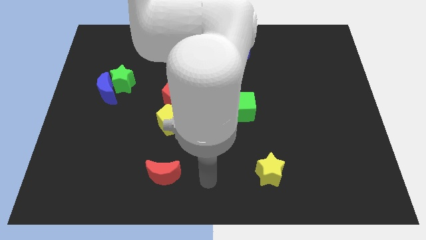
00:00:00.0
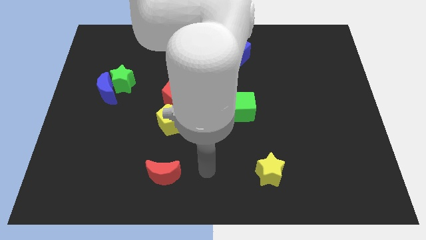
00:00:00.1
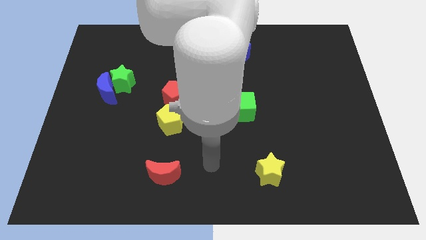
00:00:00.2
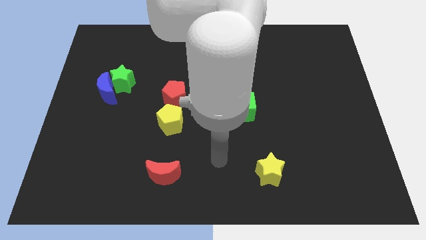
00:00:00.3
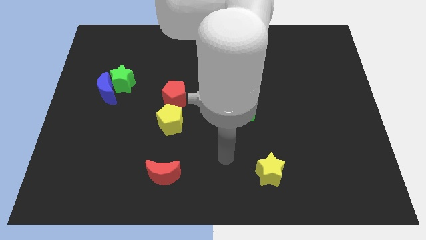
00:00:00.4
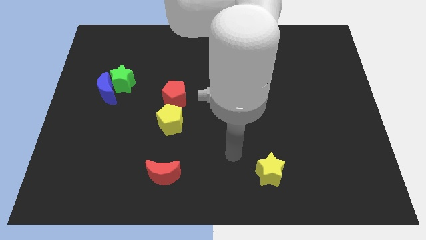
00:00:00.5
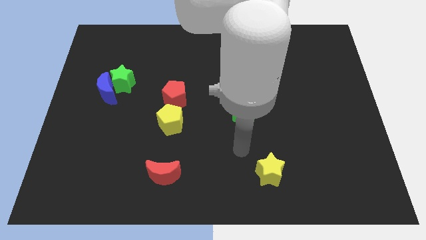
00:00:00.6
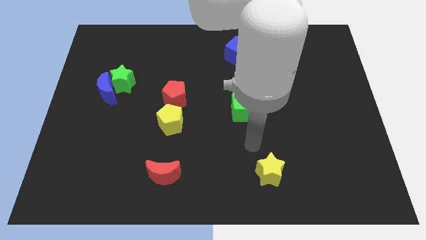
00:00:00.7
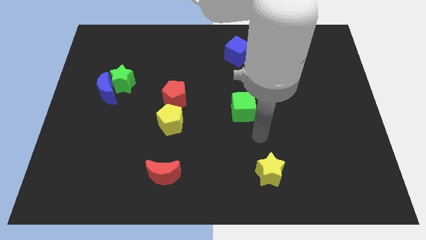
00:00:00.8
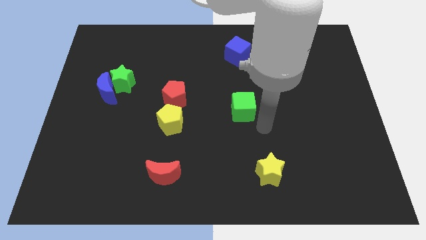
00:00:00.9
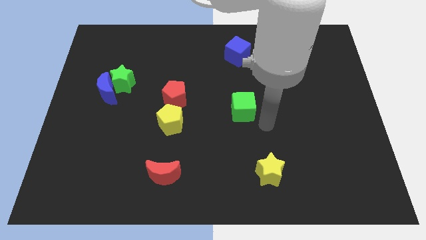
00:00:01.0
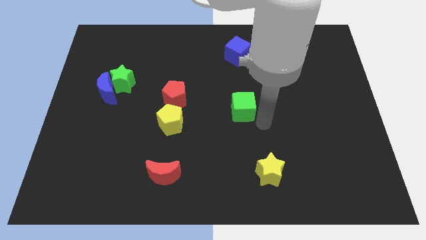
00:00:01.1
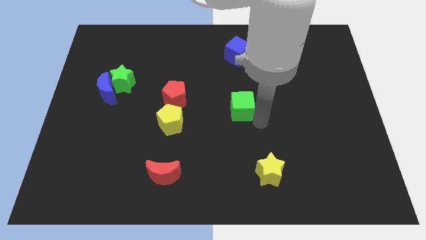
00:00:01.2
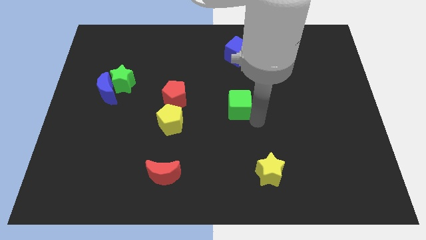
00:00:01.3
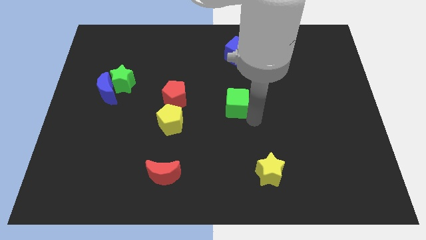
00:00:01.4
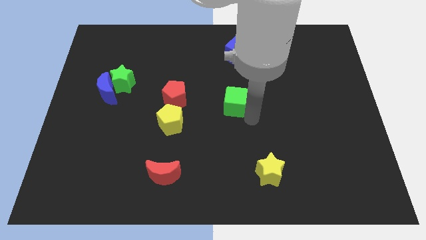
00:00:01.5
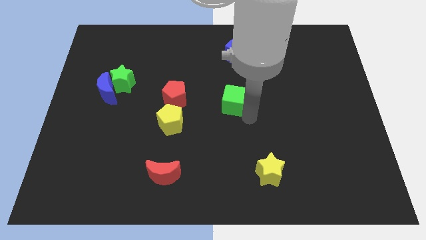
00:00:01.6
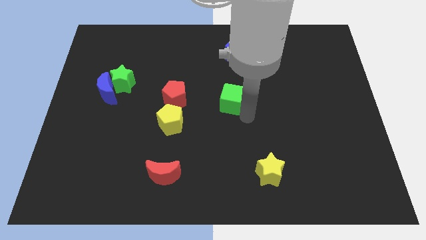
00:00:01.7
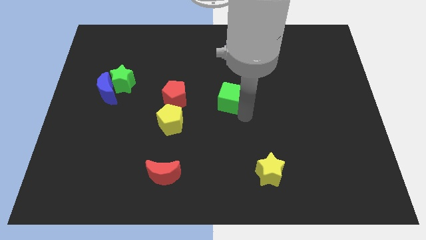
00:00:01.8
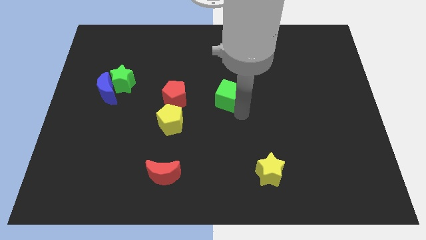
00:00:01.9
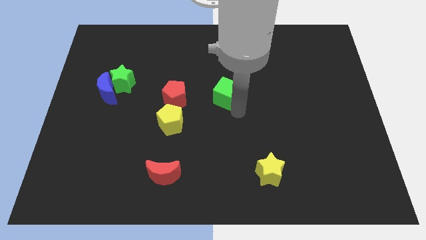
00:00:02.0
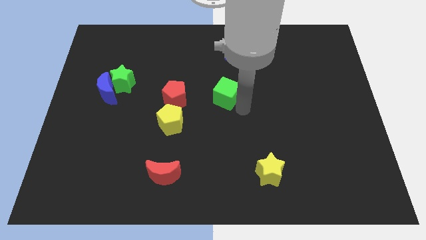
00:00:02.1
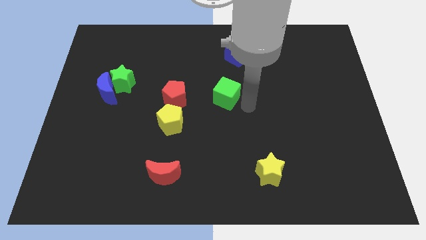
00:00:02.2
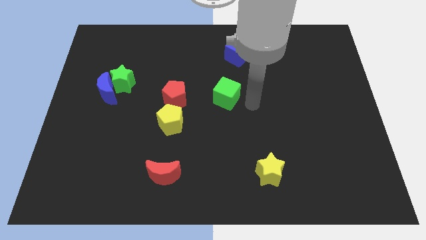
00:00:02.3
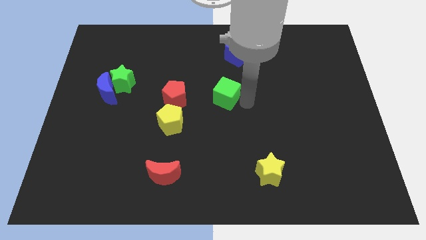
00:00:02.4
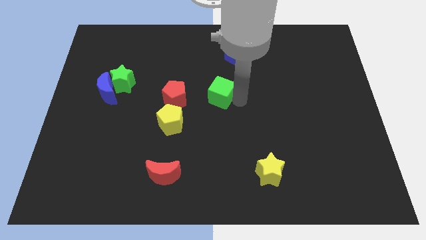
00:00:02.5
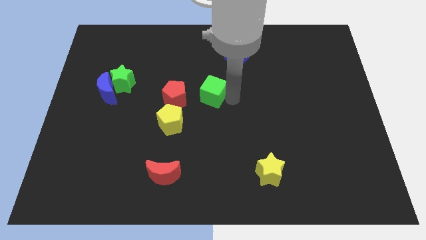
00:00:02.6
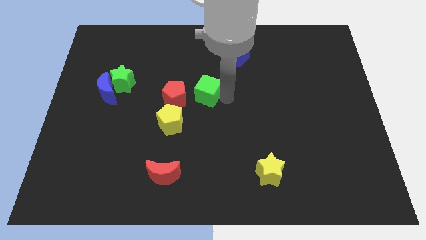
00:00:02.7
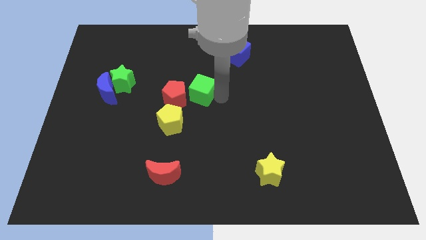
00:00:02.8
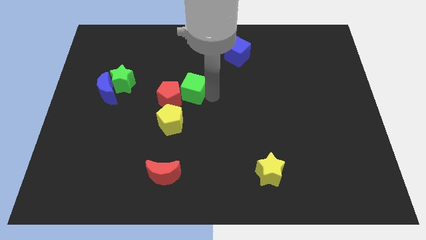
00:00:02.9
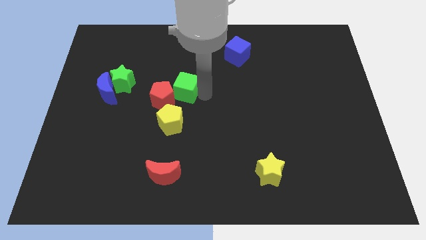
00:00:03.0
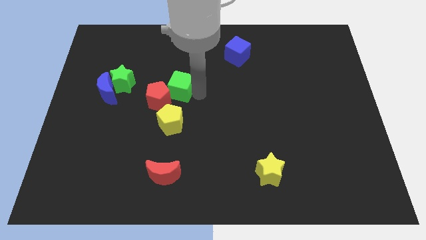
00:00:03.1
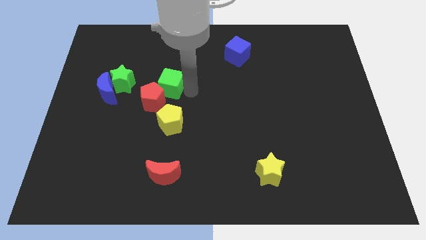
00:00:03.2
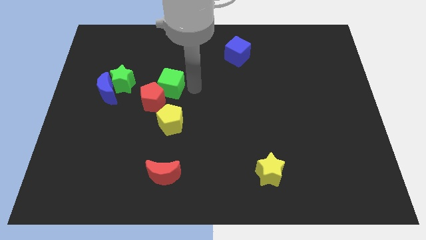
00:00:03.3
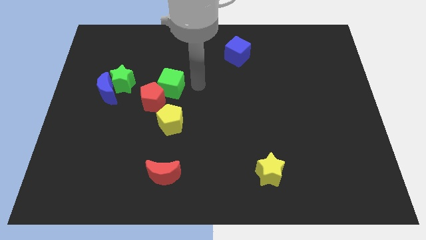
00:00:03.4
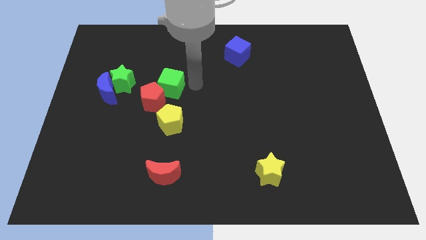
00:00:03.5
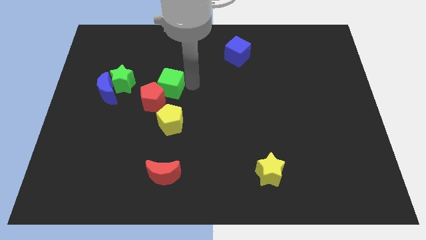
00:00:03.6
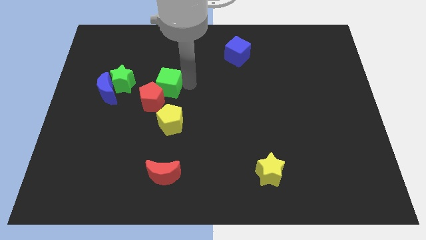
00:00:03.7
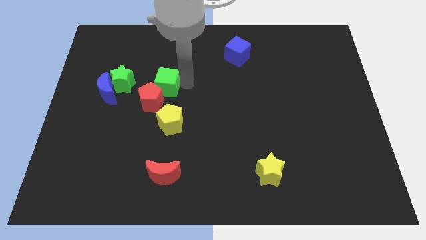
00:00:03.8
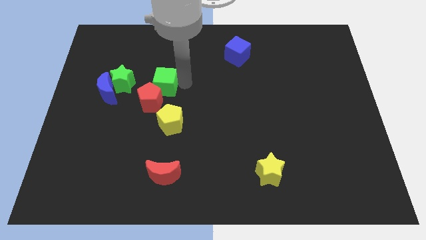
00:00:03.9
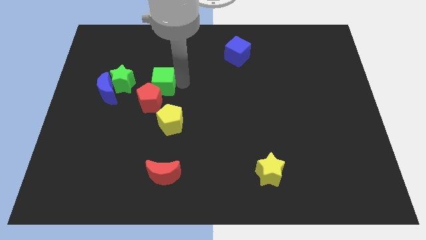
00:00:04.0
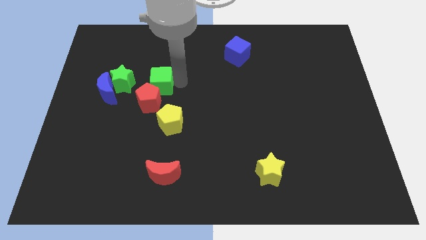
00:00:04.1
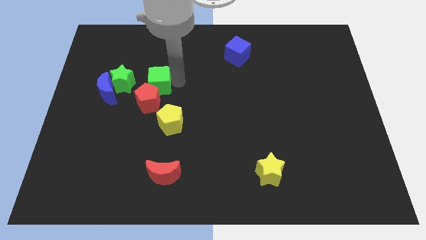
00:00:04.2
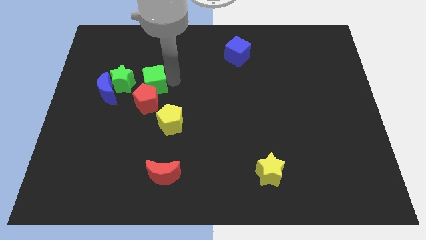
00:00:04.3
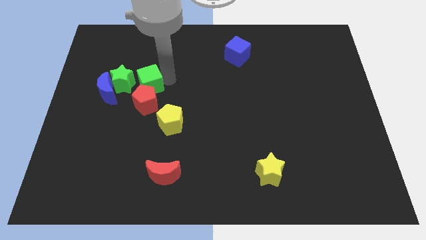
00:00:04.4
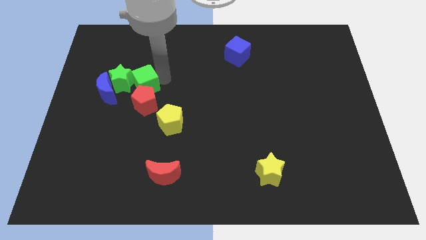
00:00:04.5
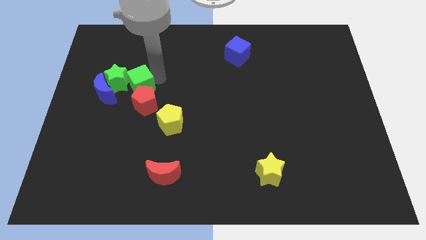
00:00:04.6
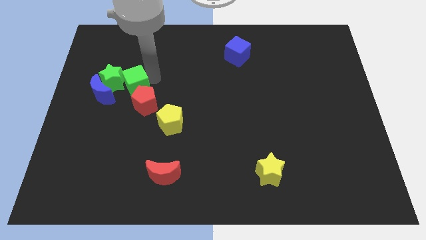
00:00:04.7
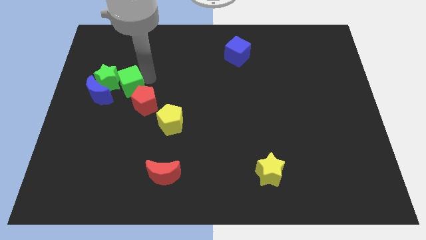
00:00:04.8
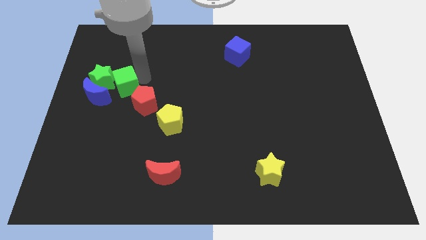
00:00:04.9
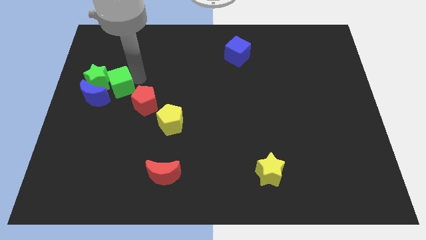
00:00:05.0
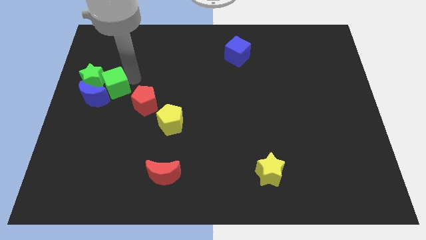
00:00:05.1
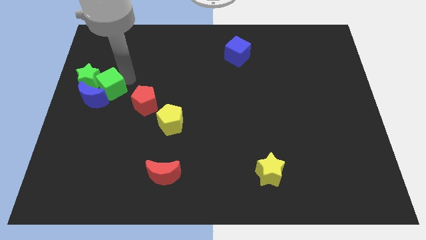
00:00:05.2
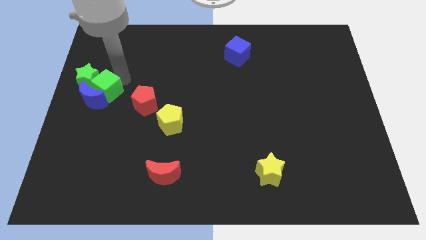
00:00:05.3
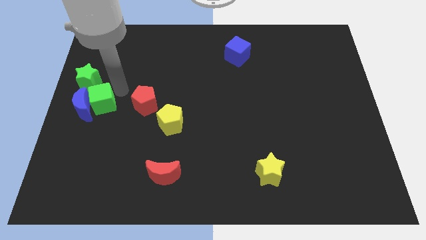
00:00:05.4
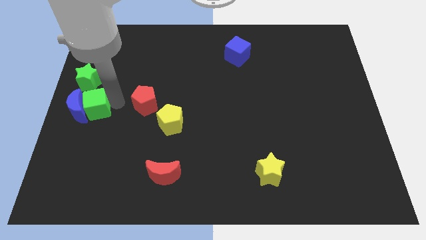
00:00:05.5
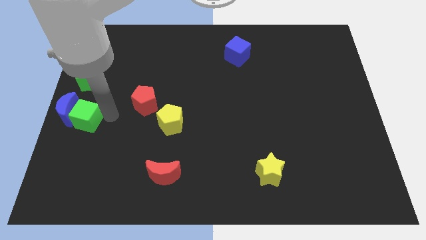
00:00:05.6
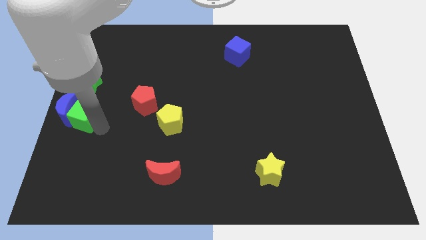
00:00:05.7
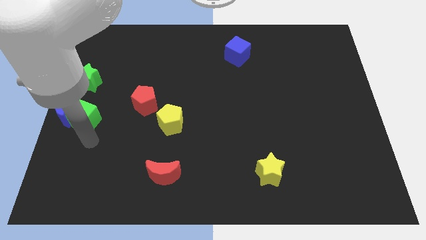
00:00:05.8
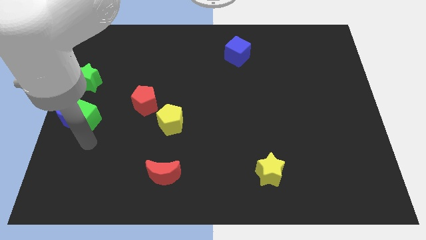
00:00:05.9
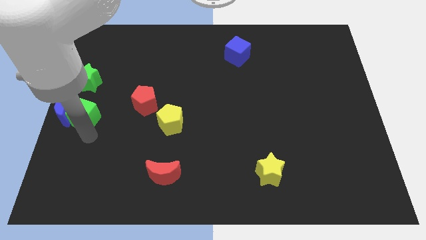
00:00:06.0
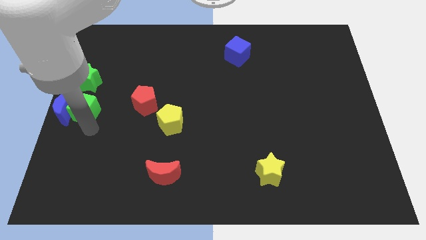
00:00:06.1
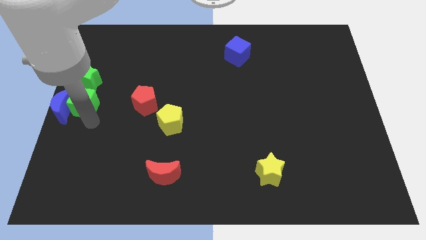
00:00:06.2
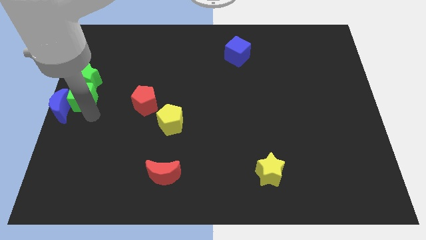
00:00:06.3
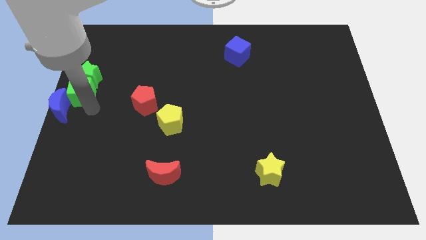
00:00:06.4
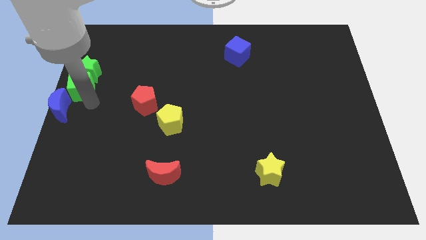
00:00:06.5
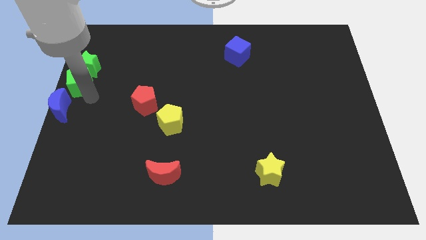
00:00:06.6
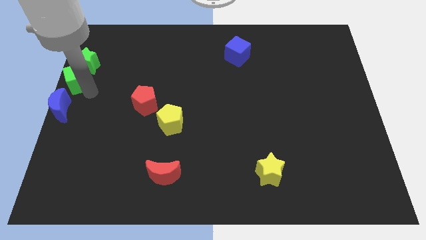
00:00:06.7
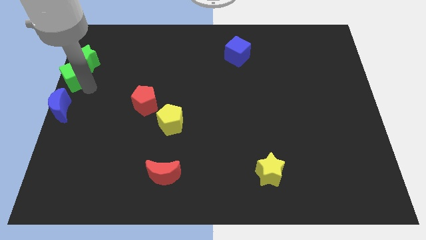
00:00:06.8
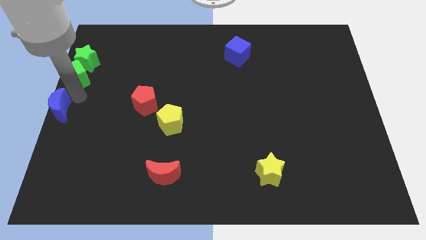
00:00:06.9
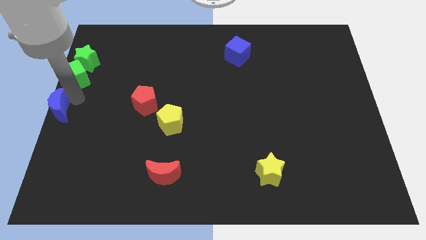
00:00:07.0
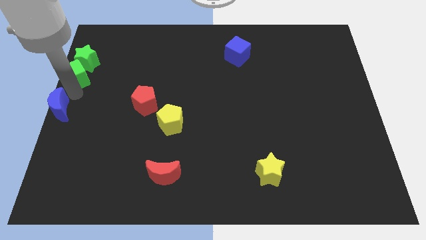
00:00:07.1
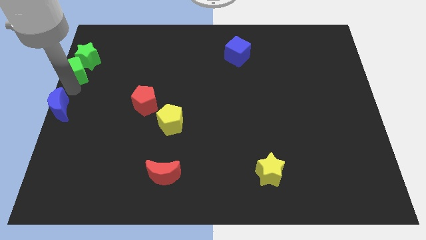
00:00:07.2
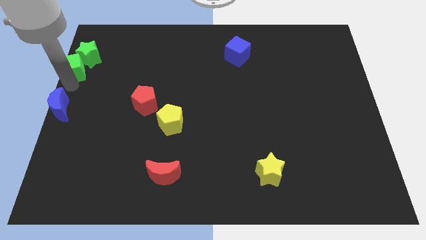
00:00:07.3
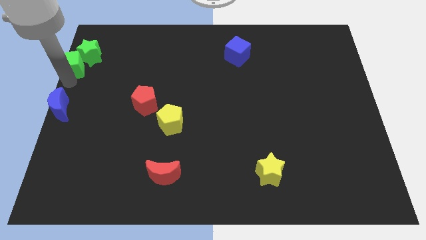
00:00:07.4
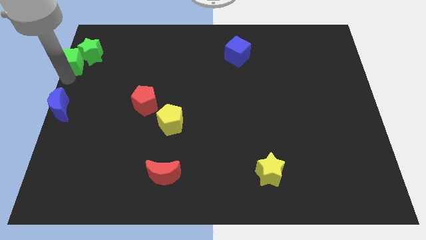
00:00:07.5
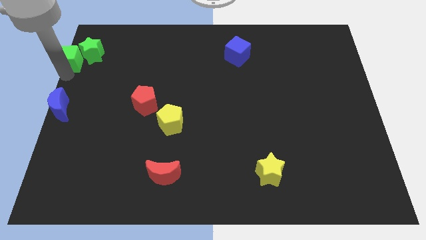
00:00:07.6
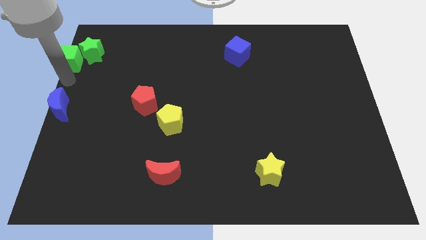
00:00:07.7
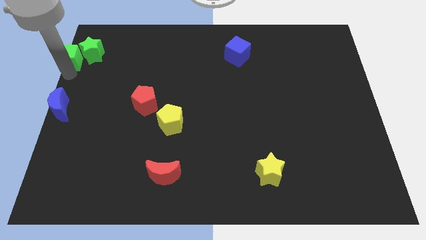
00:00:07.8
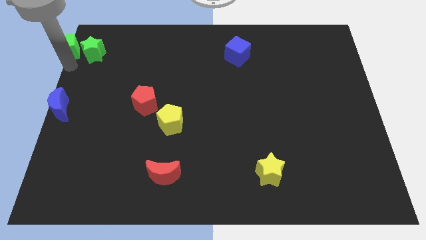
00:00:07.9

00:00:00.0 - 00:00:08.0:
push the green cube to the top left
